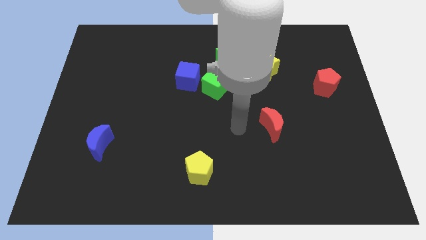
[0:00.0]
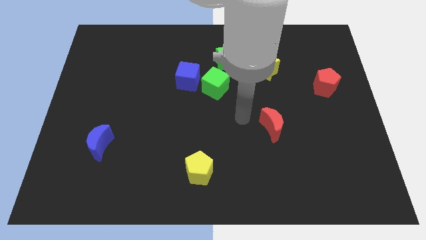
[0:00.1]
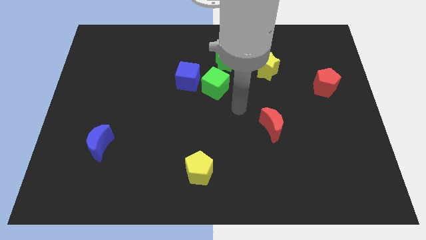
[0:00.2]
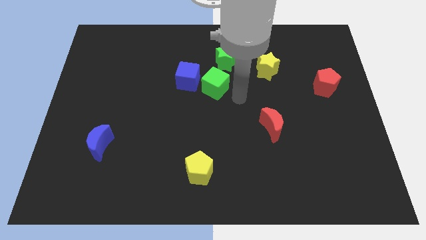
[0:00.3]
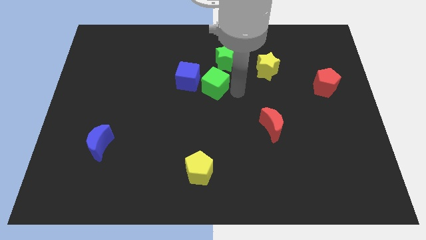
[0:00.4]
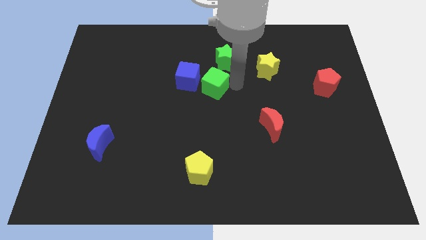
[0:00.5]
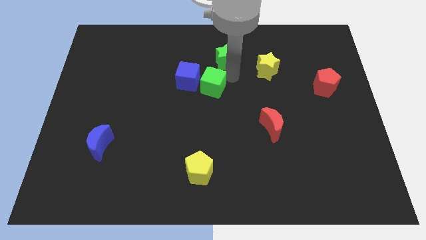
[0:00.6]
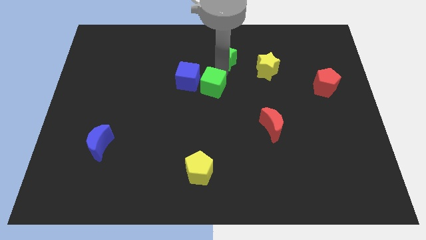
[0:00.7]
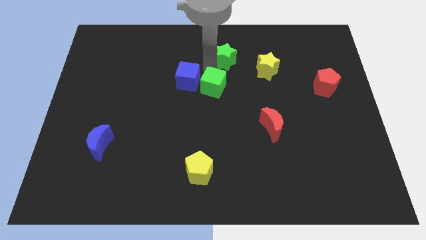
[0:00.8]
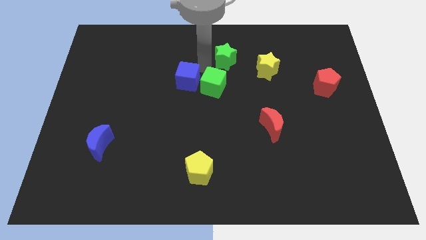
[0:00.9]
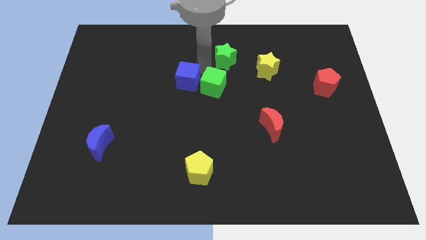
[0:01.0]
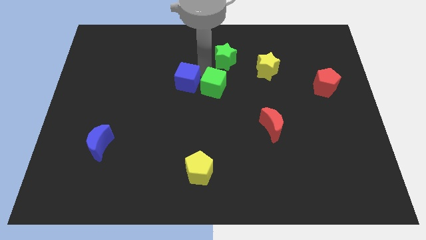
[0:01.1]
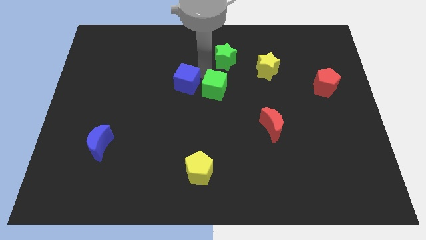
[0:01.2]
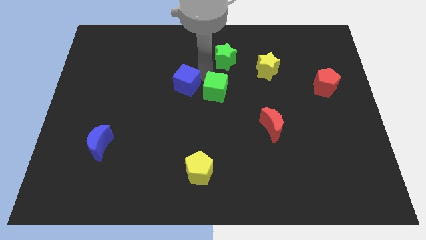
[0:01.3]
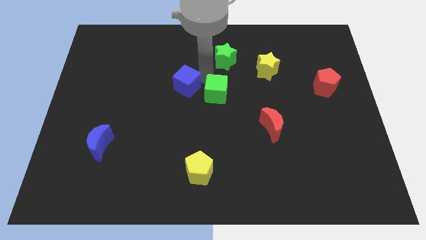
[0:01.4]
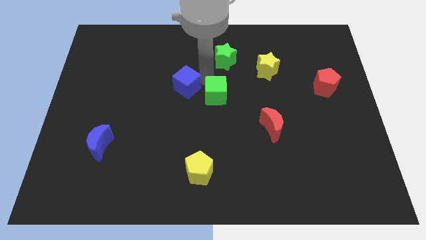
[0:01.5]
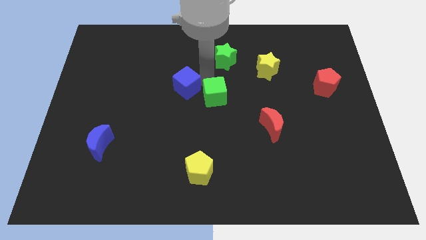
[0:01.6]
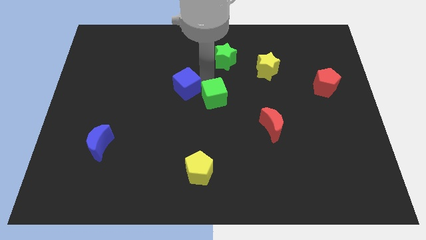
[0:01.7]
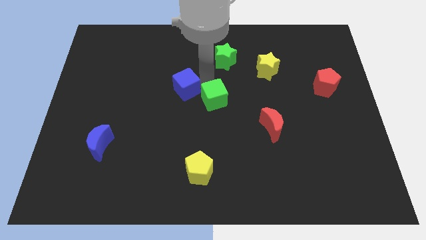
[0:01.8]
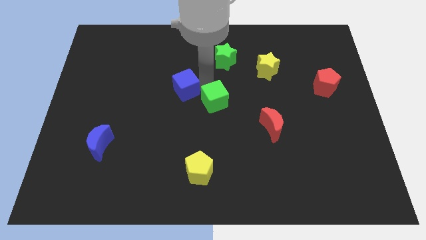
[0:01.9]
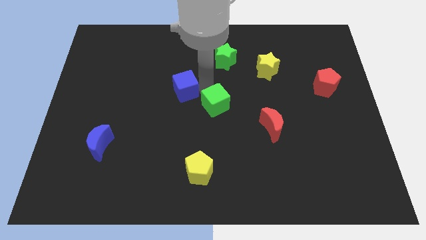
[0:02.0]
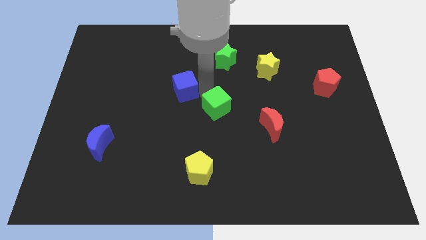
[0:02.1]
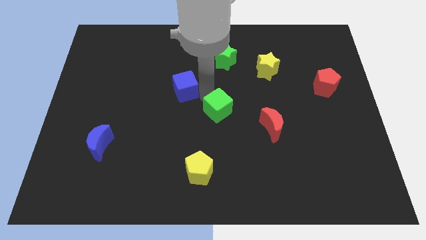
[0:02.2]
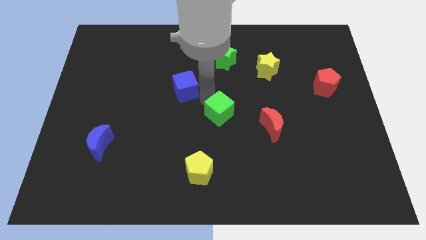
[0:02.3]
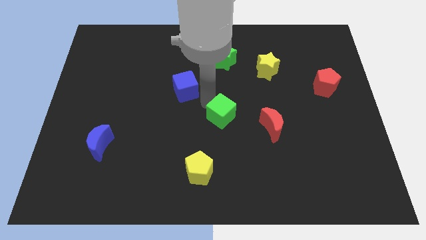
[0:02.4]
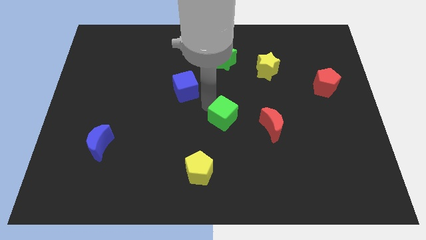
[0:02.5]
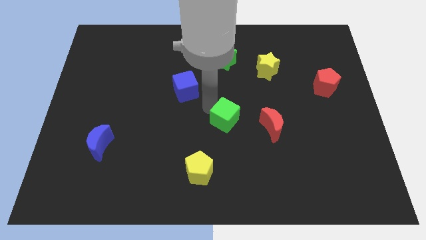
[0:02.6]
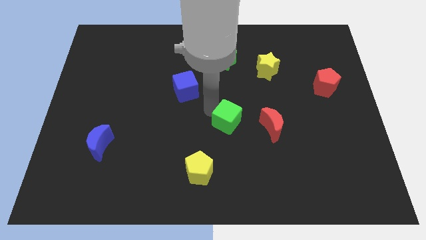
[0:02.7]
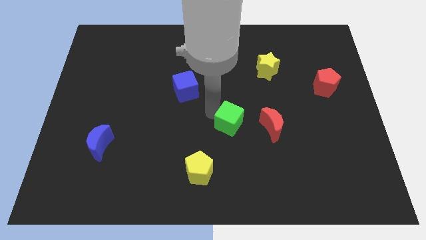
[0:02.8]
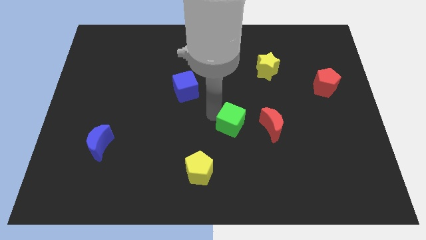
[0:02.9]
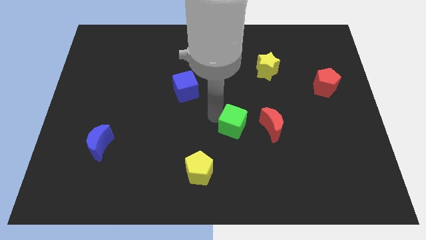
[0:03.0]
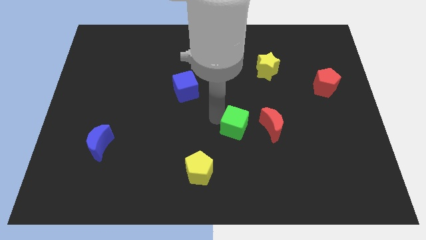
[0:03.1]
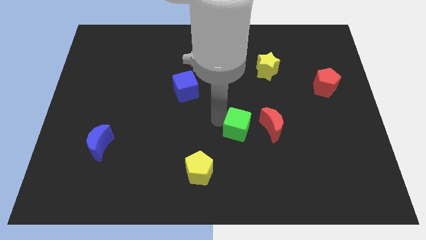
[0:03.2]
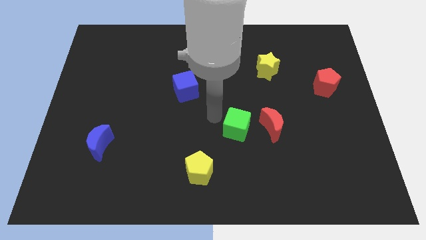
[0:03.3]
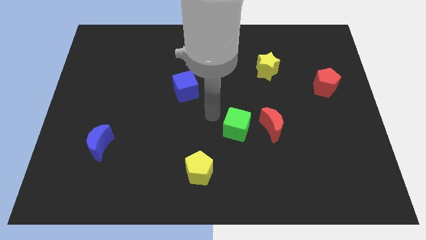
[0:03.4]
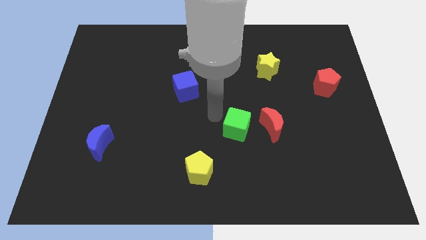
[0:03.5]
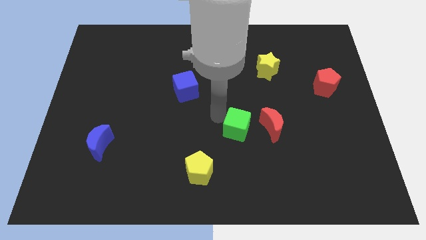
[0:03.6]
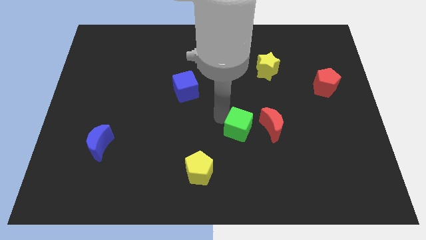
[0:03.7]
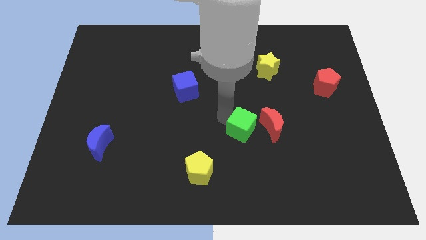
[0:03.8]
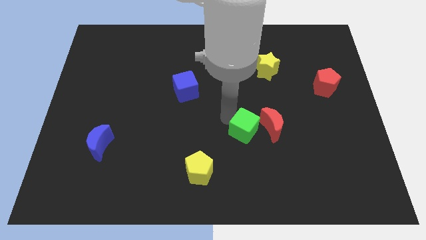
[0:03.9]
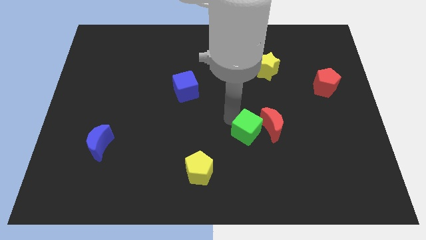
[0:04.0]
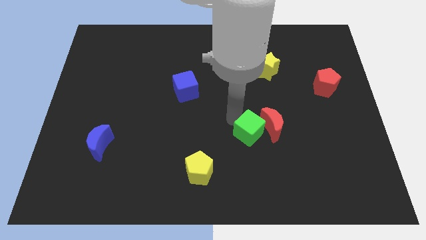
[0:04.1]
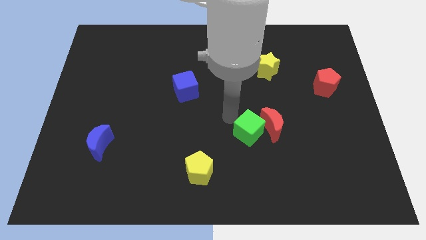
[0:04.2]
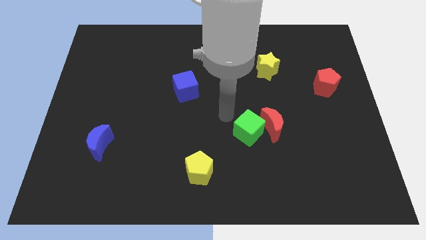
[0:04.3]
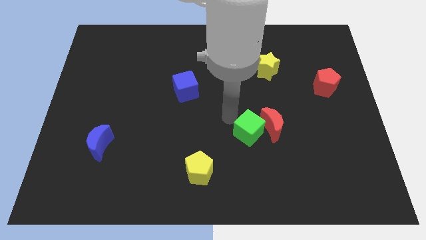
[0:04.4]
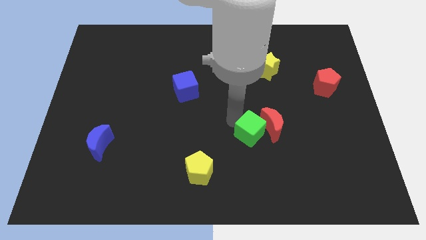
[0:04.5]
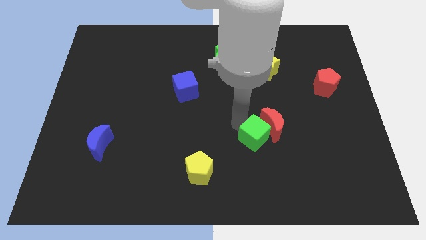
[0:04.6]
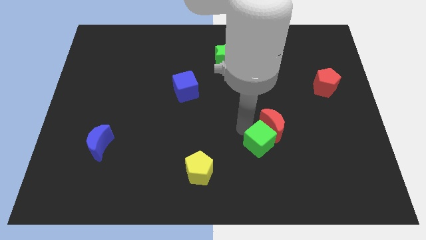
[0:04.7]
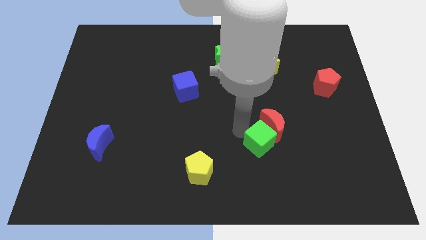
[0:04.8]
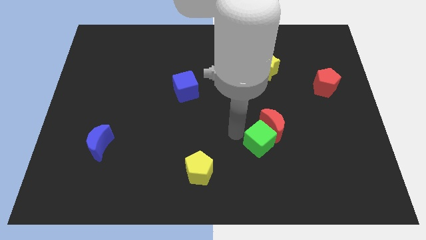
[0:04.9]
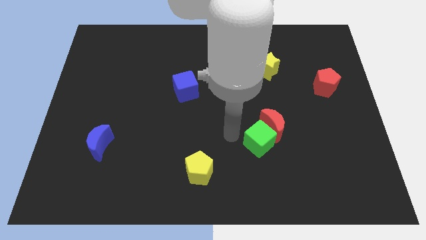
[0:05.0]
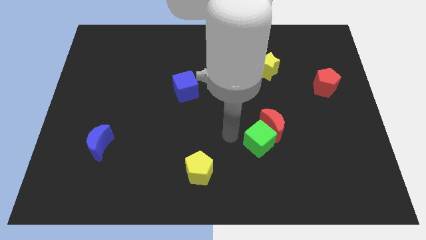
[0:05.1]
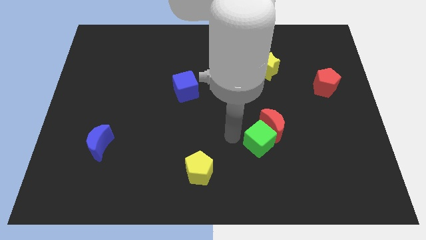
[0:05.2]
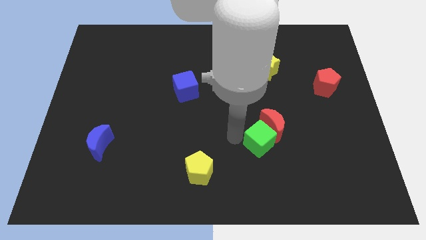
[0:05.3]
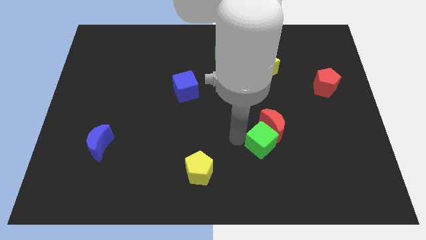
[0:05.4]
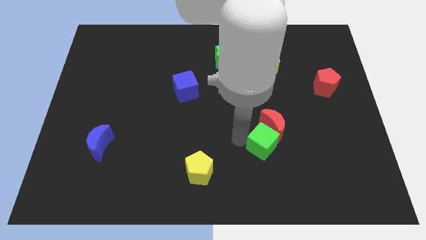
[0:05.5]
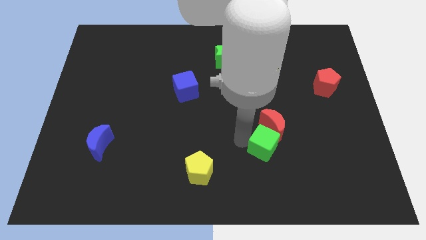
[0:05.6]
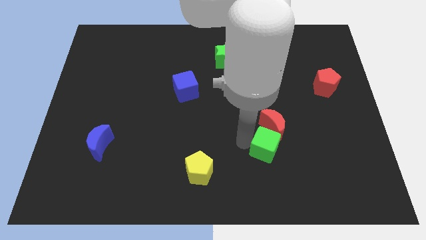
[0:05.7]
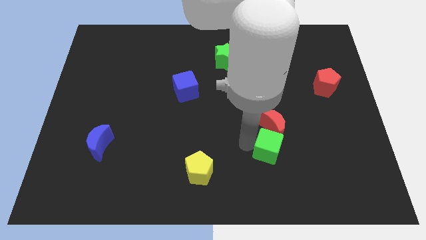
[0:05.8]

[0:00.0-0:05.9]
push the green cube downwards and then right

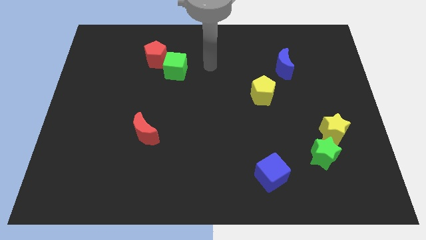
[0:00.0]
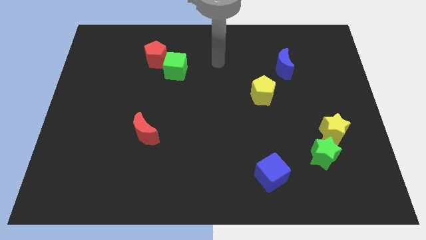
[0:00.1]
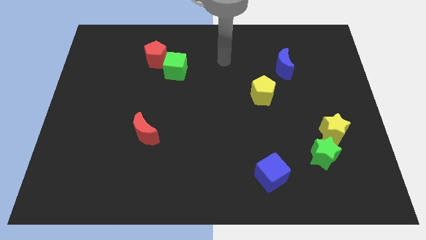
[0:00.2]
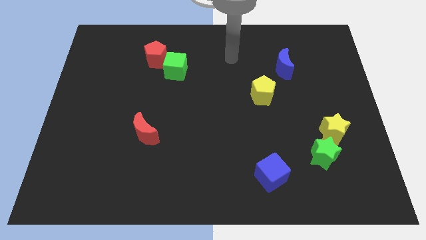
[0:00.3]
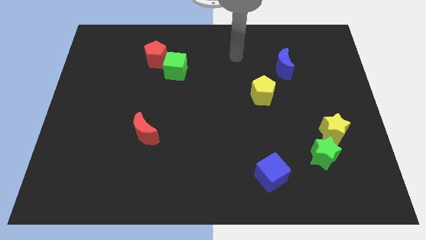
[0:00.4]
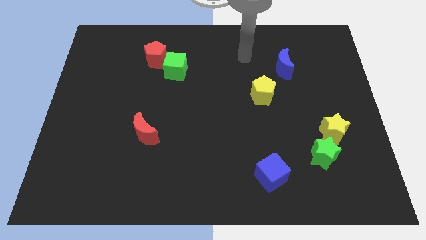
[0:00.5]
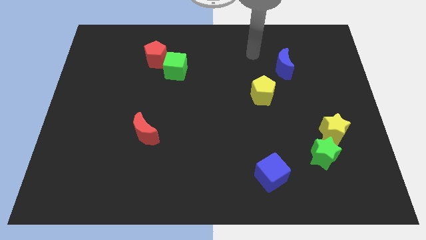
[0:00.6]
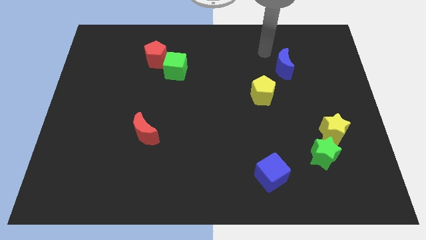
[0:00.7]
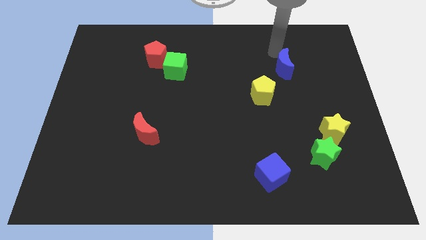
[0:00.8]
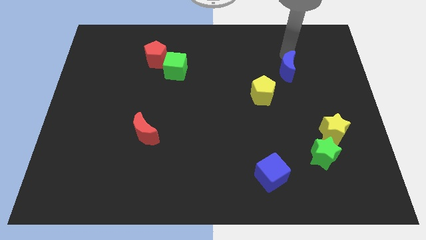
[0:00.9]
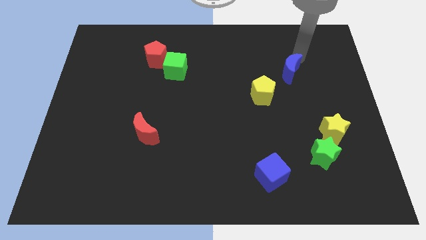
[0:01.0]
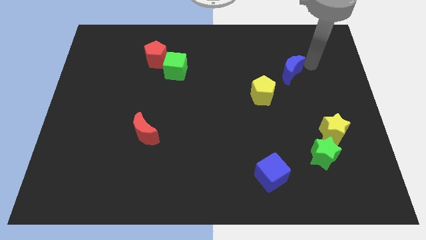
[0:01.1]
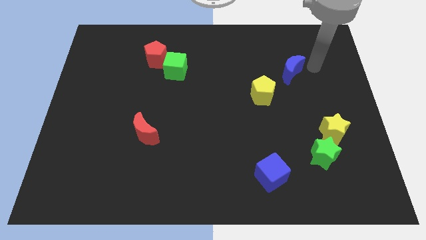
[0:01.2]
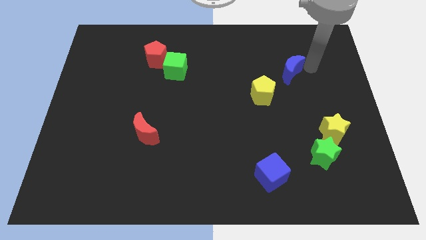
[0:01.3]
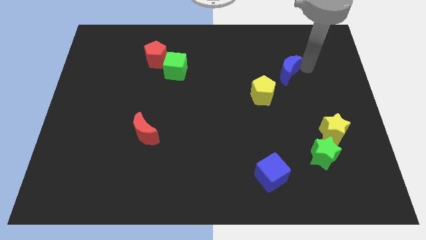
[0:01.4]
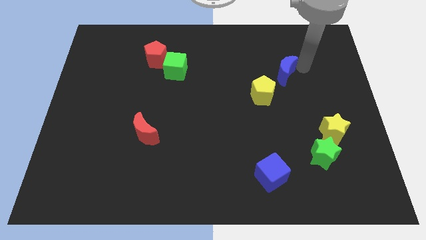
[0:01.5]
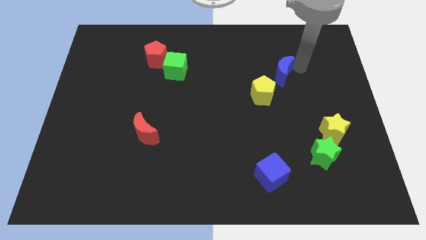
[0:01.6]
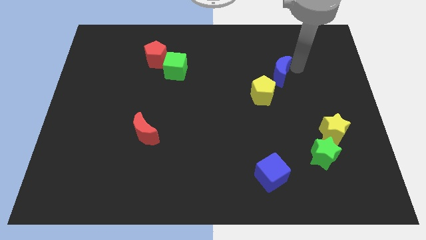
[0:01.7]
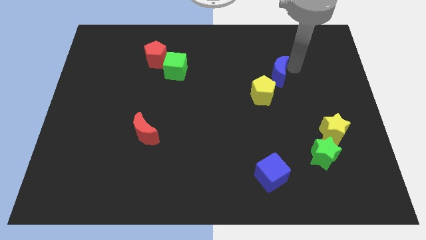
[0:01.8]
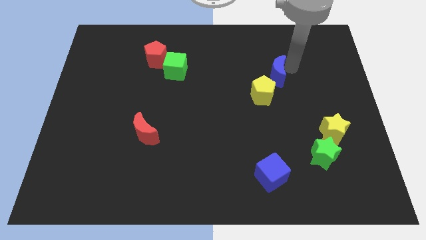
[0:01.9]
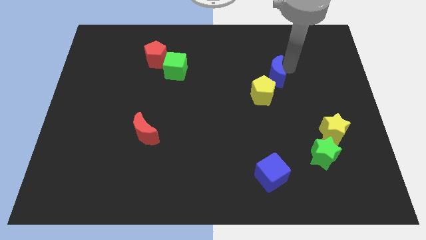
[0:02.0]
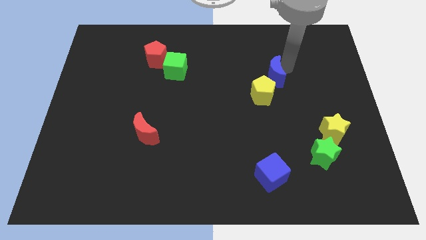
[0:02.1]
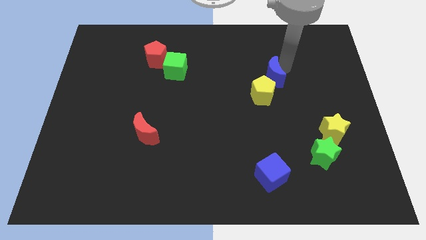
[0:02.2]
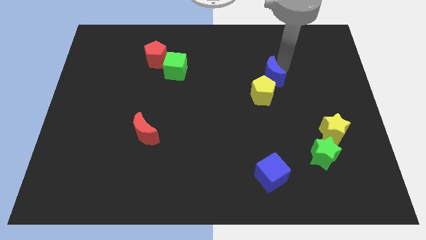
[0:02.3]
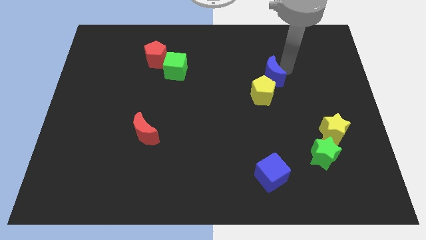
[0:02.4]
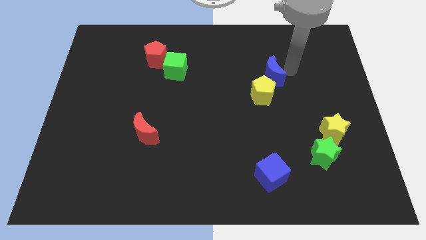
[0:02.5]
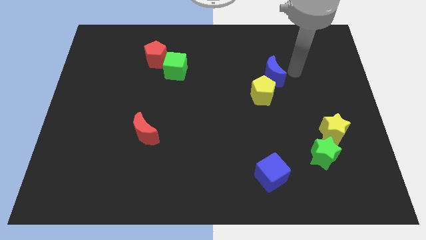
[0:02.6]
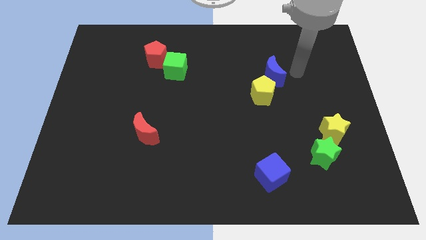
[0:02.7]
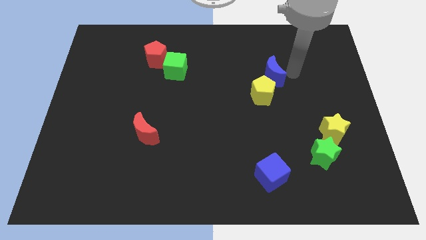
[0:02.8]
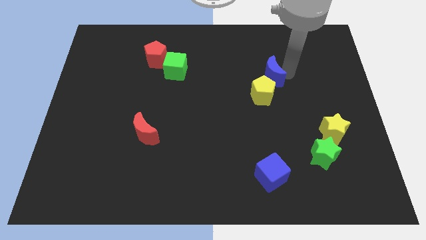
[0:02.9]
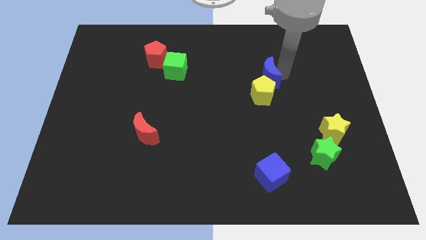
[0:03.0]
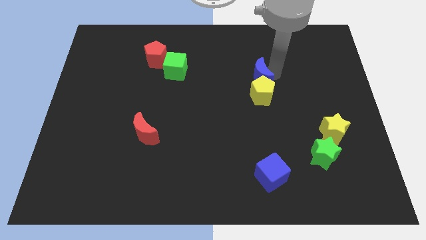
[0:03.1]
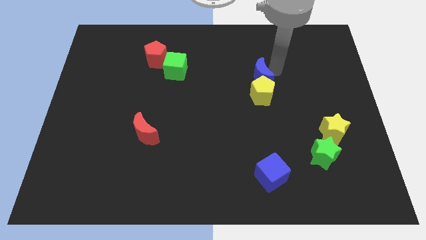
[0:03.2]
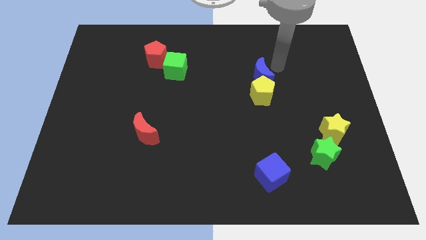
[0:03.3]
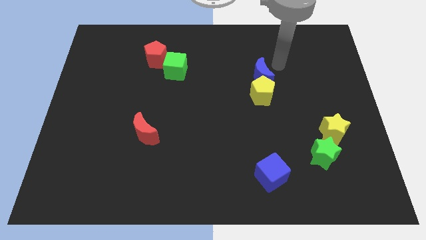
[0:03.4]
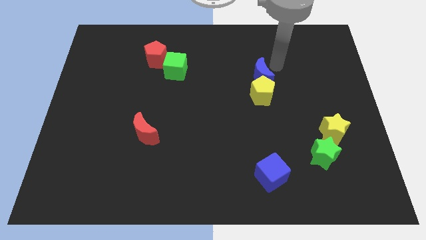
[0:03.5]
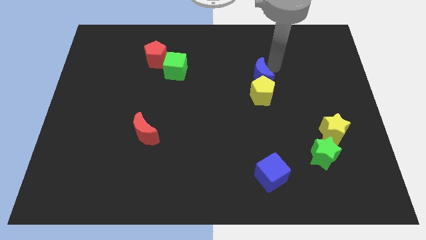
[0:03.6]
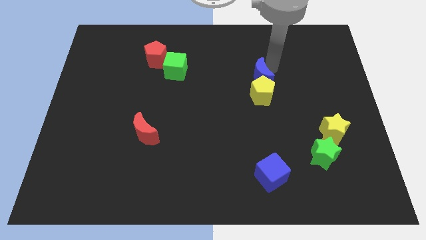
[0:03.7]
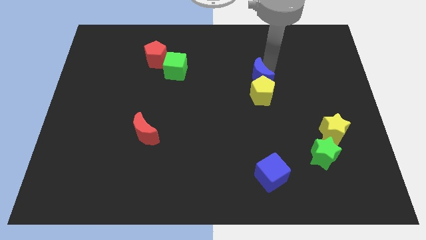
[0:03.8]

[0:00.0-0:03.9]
slightly slide the blue moon down and to the left
